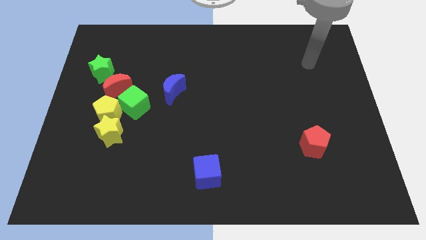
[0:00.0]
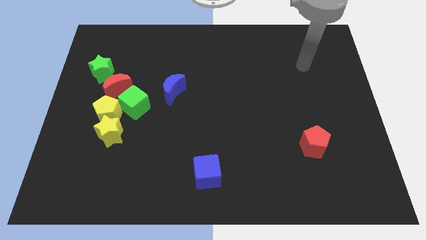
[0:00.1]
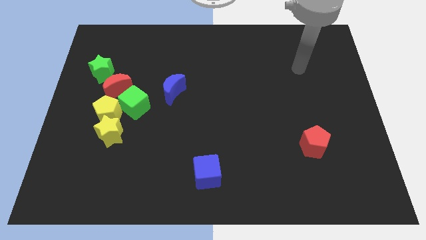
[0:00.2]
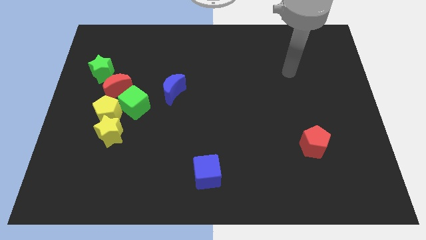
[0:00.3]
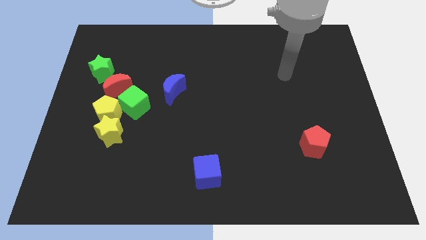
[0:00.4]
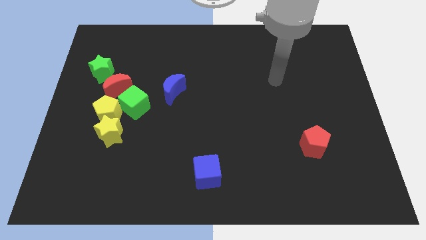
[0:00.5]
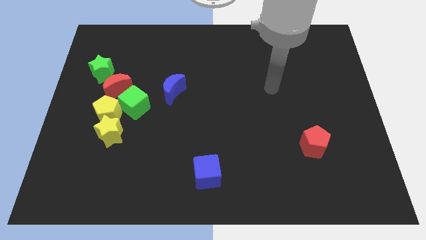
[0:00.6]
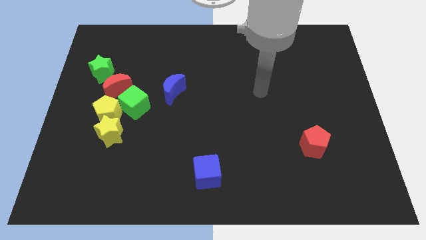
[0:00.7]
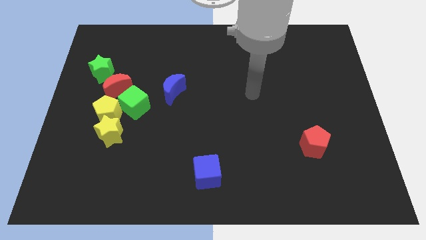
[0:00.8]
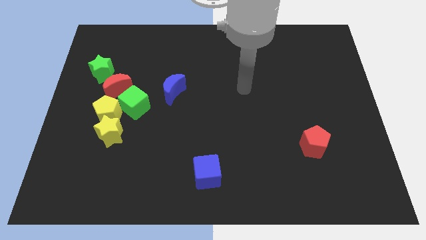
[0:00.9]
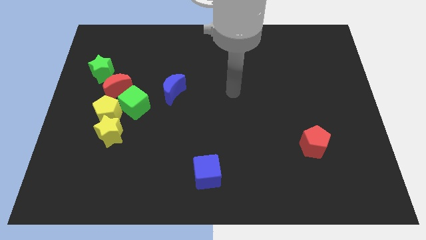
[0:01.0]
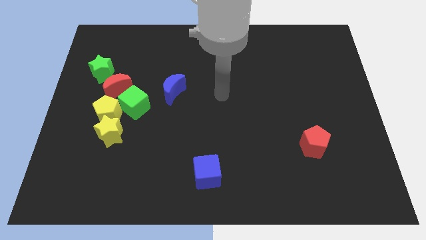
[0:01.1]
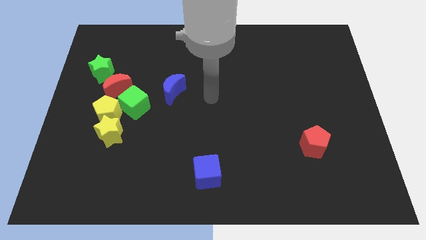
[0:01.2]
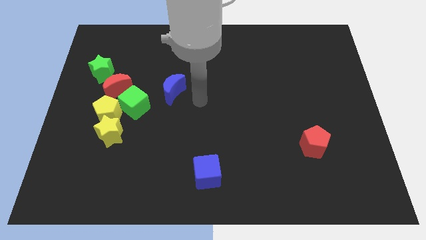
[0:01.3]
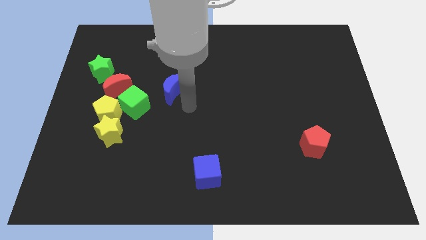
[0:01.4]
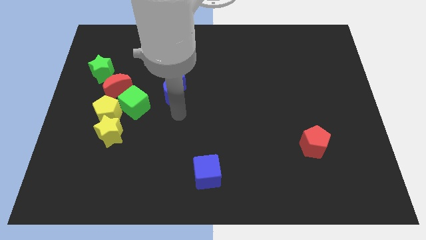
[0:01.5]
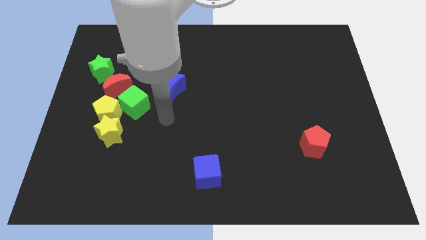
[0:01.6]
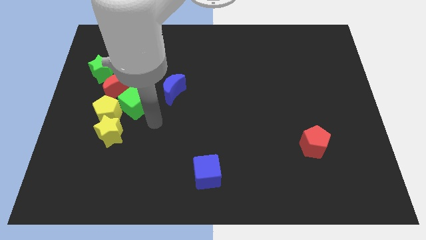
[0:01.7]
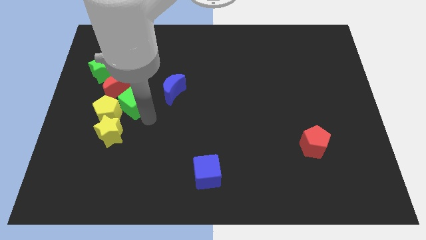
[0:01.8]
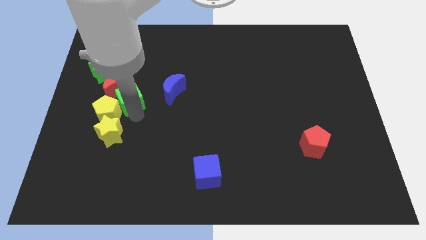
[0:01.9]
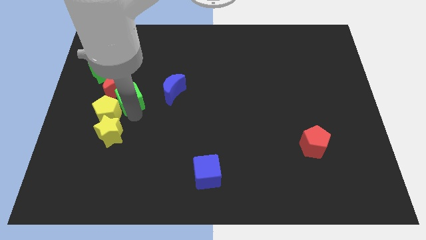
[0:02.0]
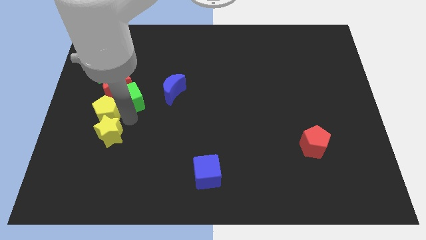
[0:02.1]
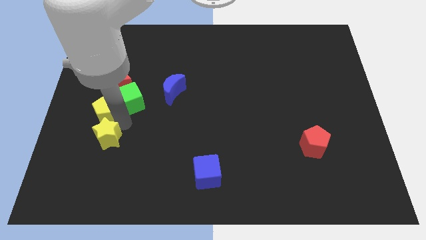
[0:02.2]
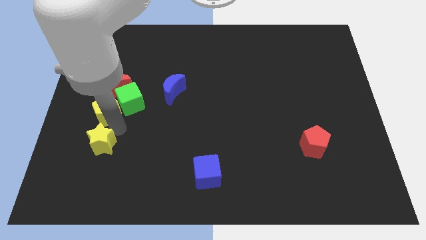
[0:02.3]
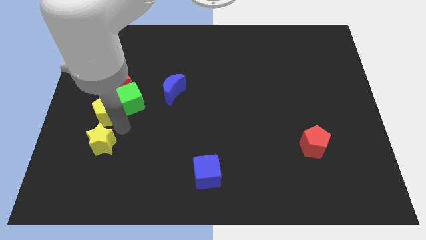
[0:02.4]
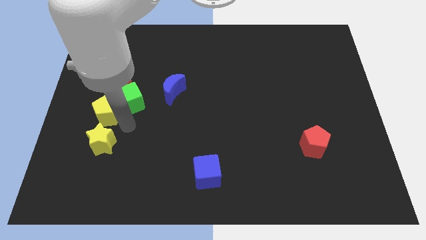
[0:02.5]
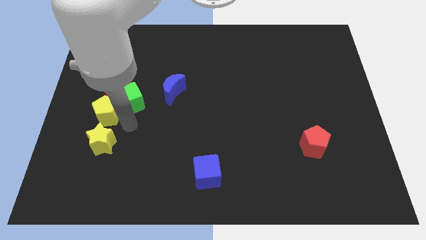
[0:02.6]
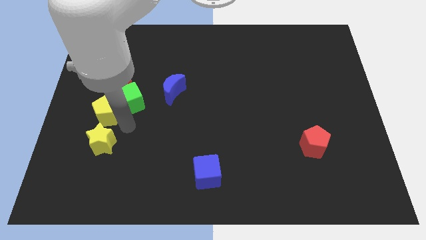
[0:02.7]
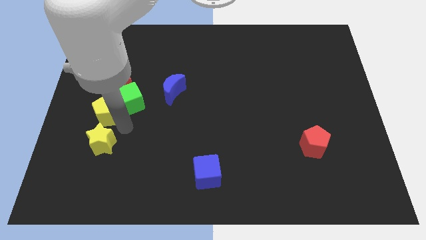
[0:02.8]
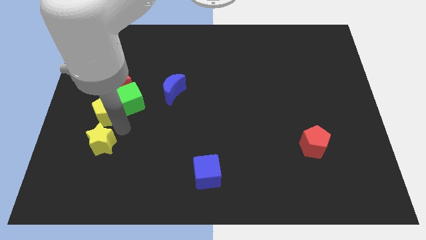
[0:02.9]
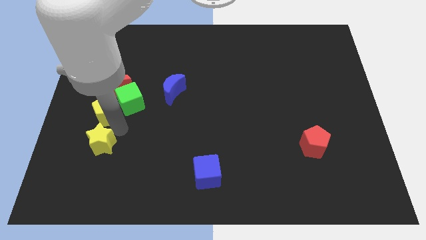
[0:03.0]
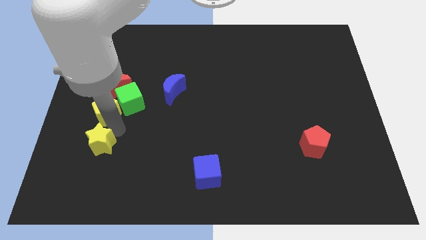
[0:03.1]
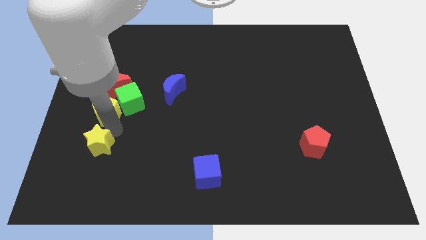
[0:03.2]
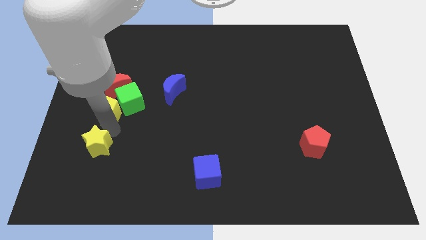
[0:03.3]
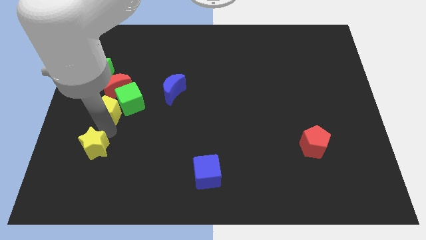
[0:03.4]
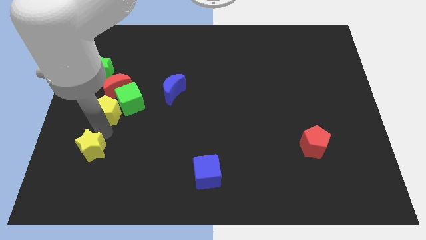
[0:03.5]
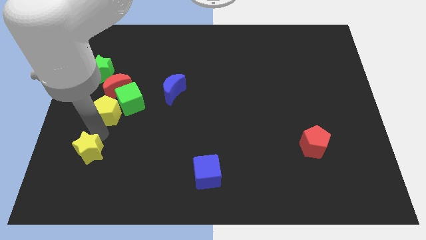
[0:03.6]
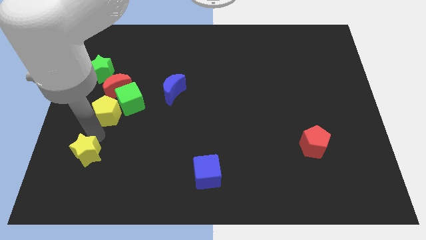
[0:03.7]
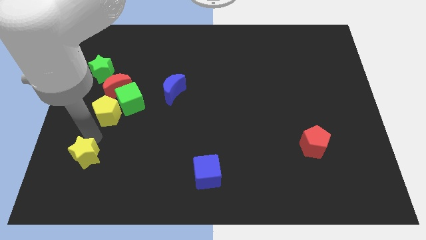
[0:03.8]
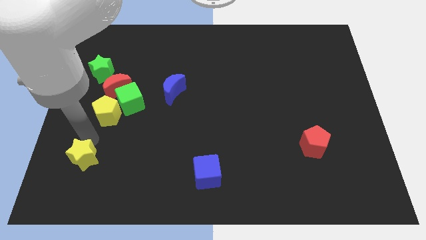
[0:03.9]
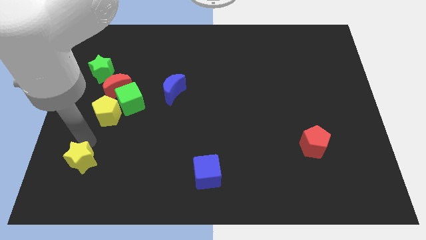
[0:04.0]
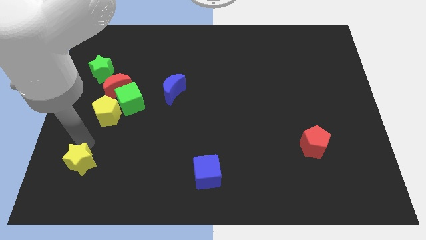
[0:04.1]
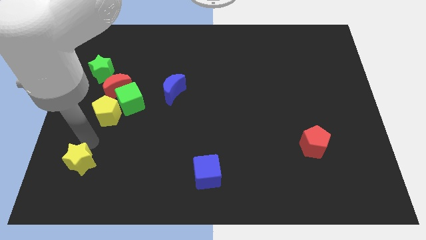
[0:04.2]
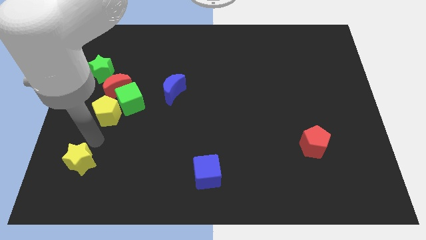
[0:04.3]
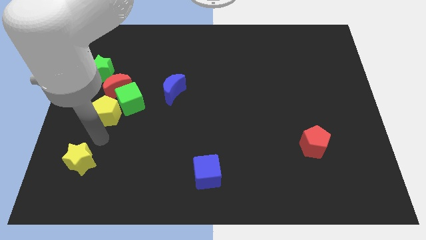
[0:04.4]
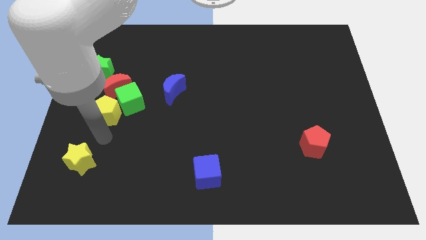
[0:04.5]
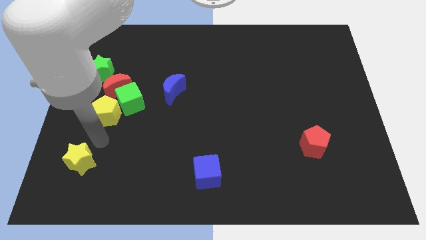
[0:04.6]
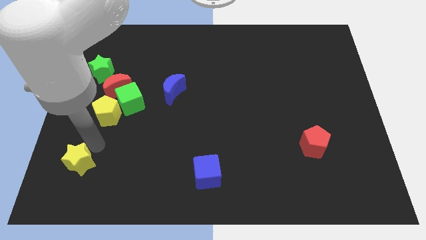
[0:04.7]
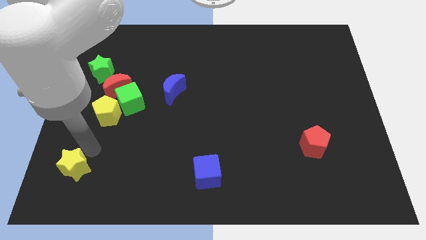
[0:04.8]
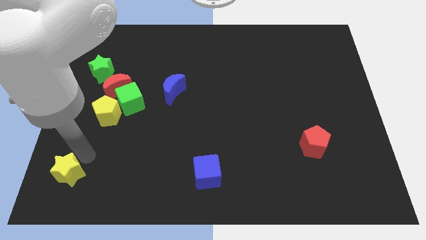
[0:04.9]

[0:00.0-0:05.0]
slide the yellow star to the lower left corner

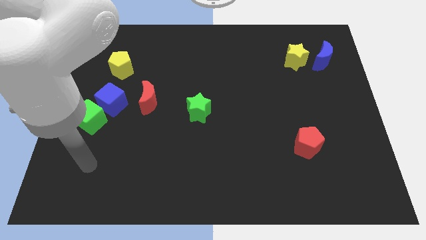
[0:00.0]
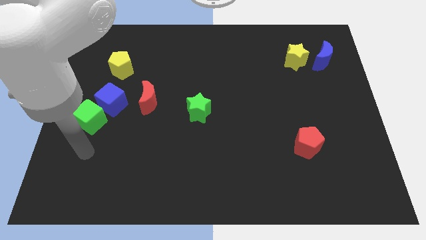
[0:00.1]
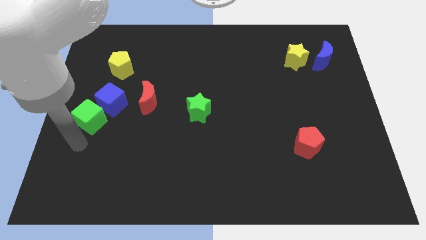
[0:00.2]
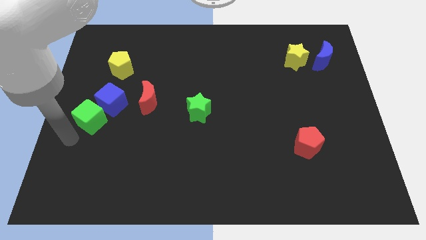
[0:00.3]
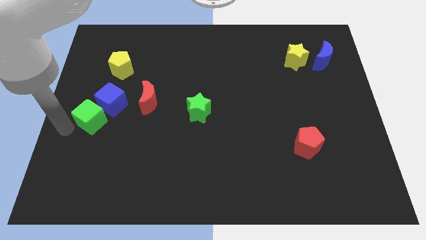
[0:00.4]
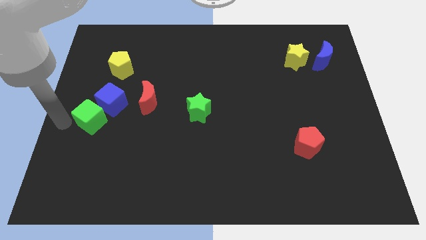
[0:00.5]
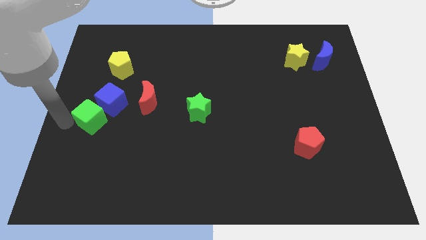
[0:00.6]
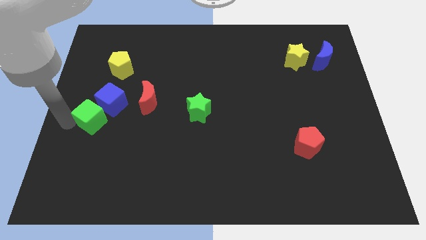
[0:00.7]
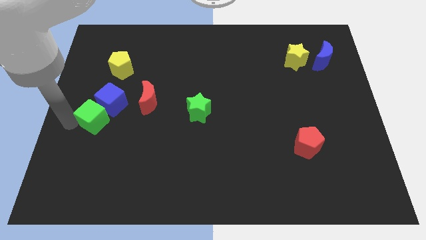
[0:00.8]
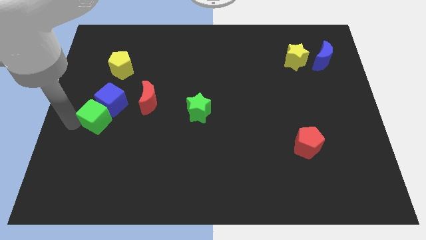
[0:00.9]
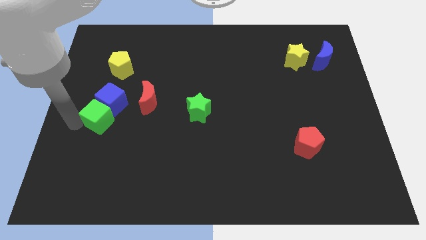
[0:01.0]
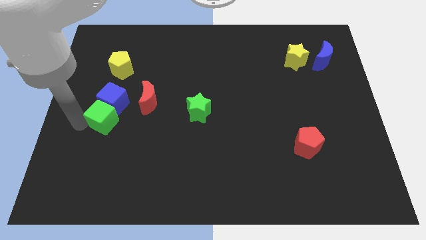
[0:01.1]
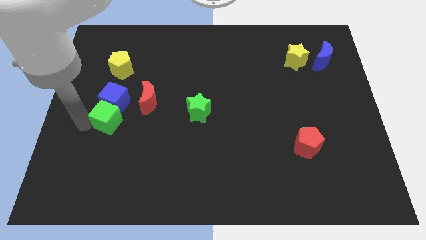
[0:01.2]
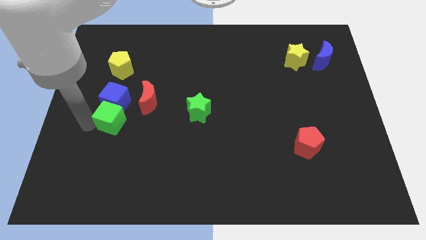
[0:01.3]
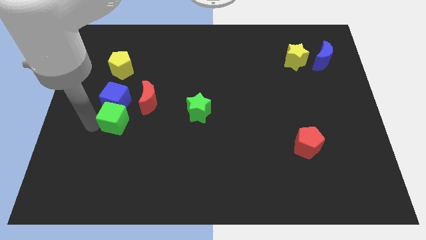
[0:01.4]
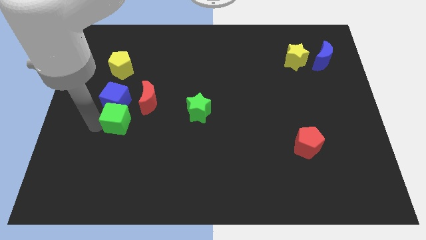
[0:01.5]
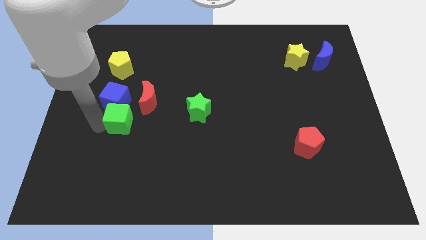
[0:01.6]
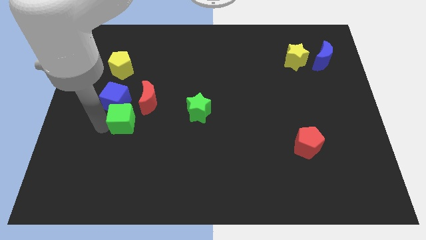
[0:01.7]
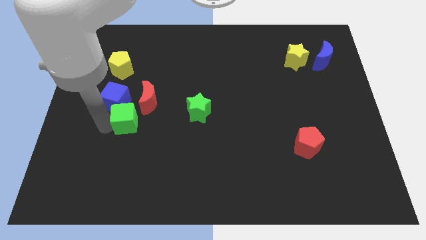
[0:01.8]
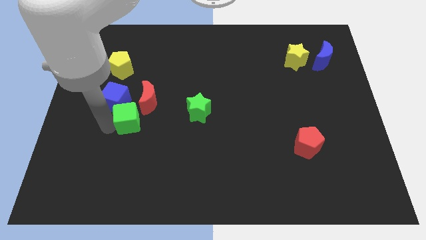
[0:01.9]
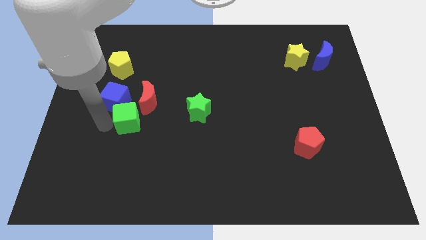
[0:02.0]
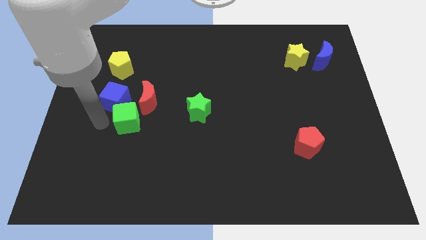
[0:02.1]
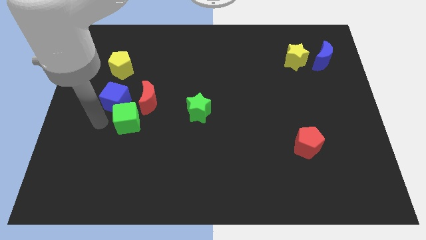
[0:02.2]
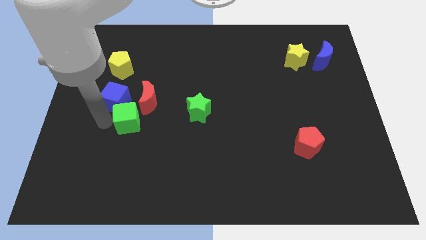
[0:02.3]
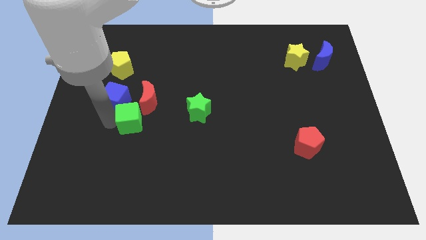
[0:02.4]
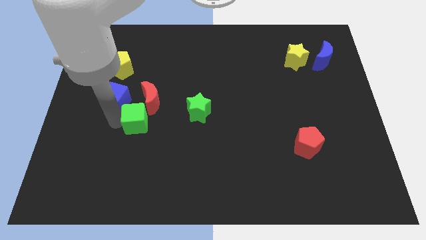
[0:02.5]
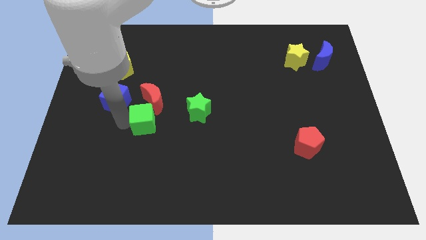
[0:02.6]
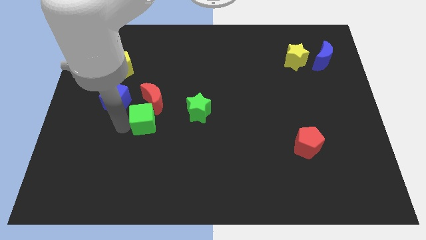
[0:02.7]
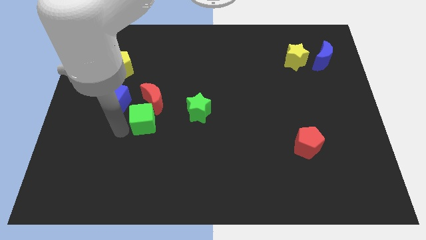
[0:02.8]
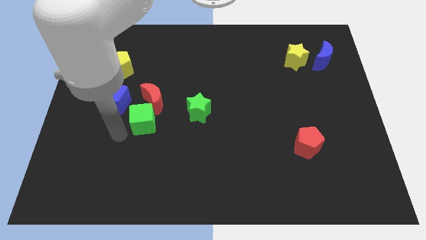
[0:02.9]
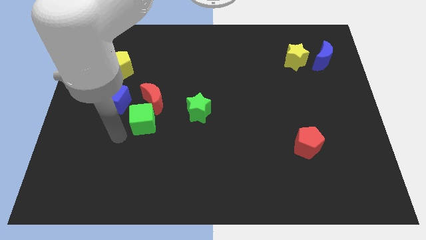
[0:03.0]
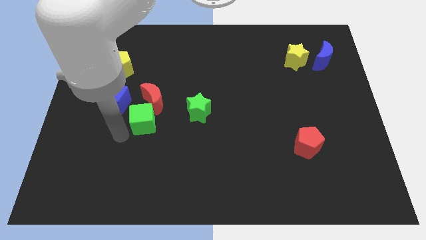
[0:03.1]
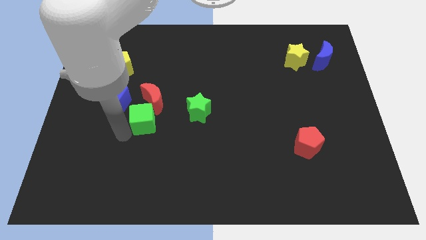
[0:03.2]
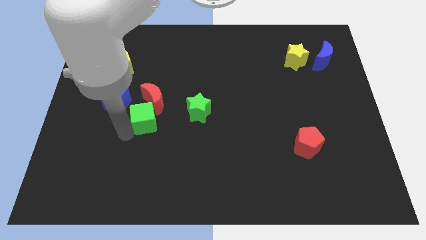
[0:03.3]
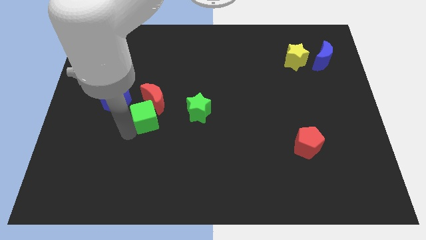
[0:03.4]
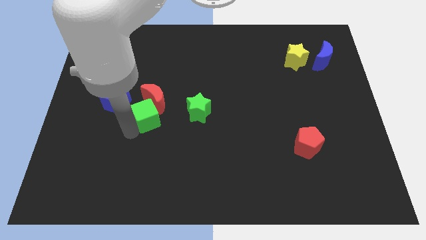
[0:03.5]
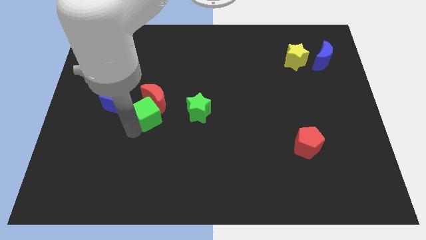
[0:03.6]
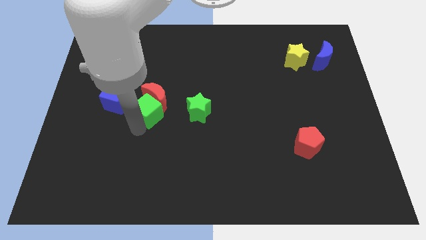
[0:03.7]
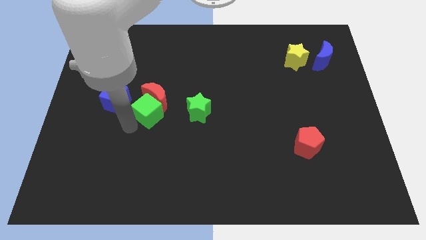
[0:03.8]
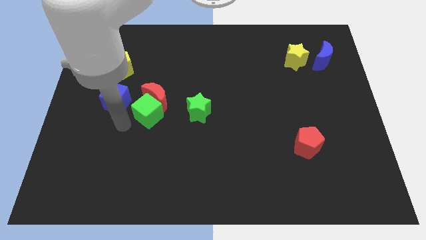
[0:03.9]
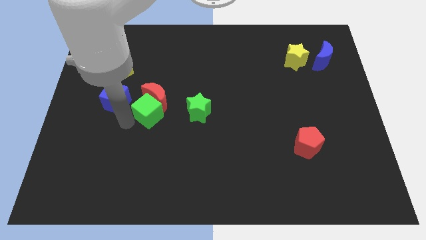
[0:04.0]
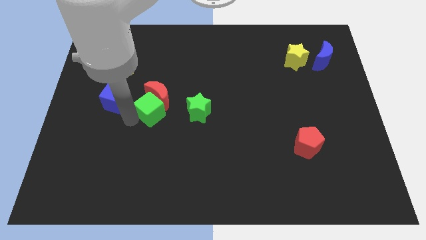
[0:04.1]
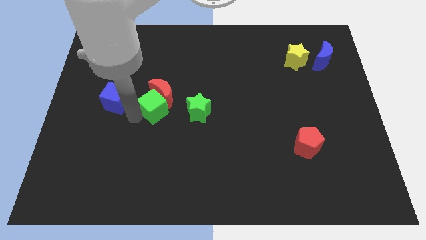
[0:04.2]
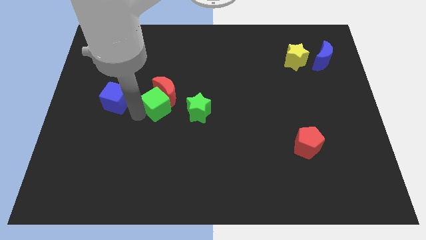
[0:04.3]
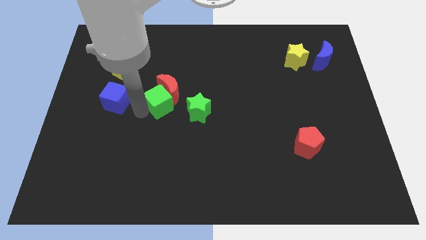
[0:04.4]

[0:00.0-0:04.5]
move the green cube to the center of the board
